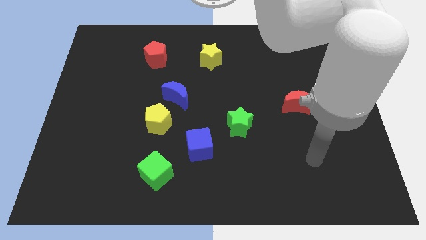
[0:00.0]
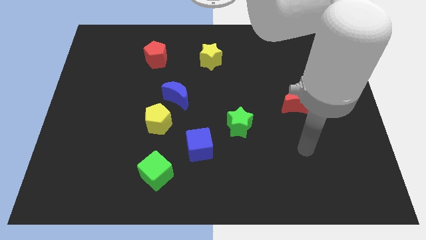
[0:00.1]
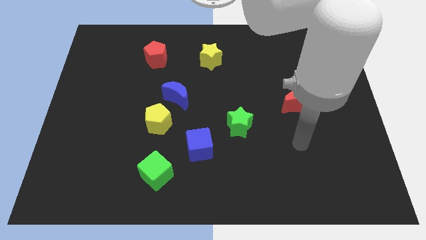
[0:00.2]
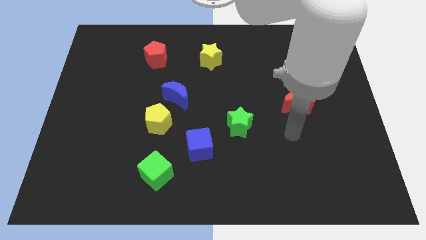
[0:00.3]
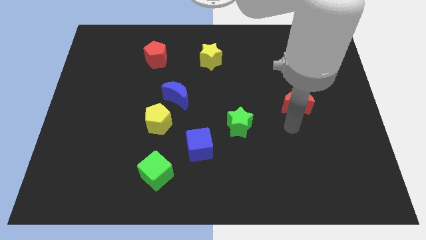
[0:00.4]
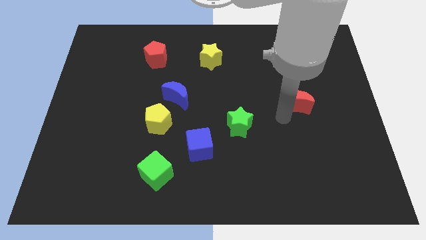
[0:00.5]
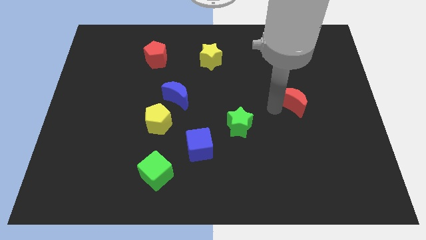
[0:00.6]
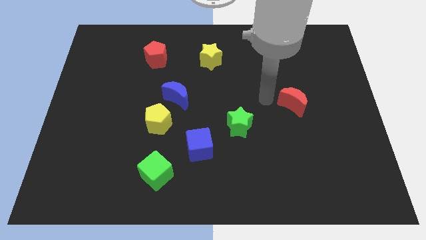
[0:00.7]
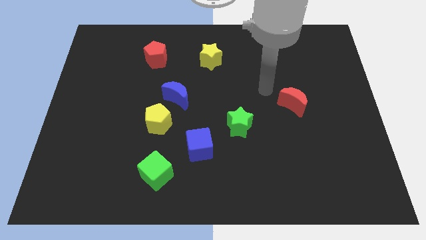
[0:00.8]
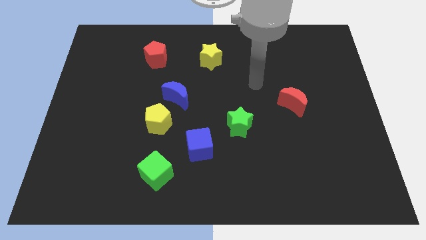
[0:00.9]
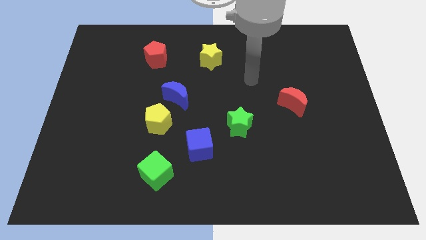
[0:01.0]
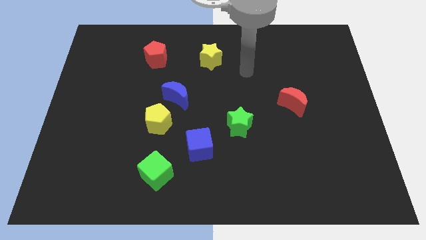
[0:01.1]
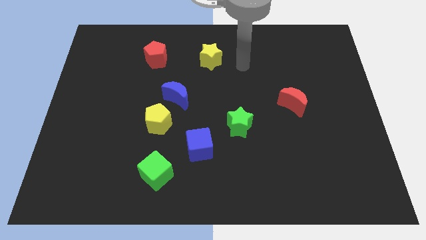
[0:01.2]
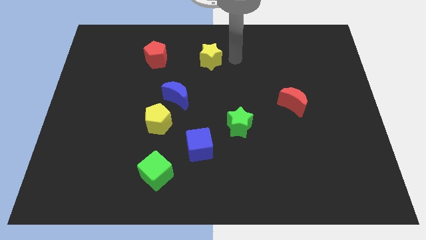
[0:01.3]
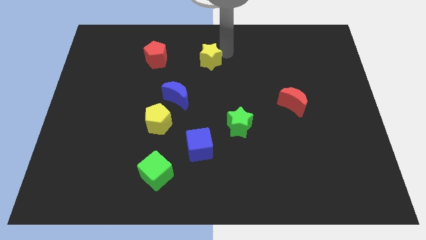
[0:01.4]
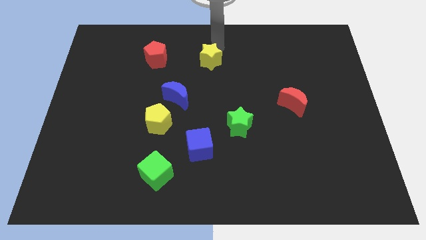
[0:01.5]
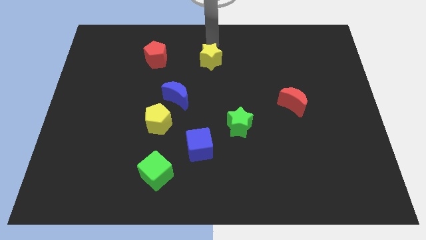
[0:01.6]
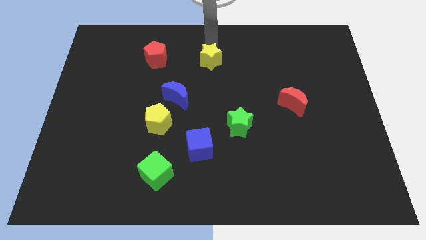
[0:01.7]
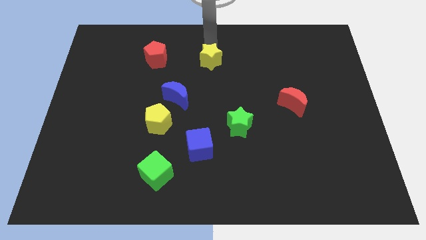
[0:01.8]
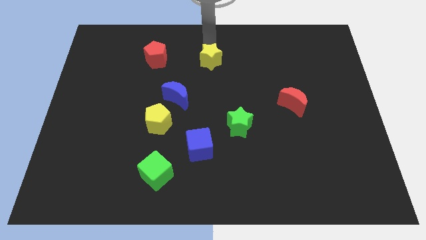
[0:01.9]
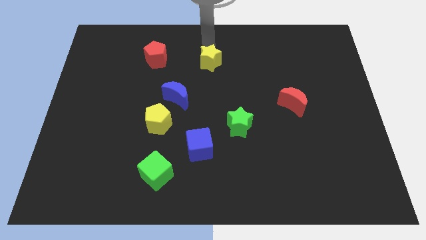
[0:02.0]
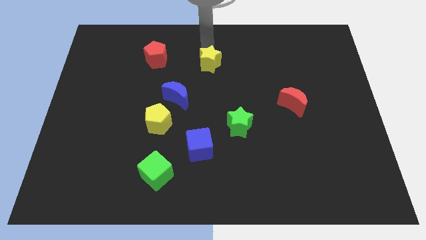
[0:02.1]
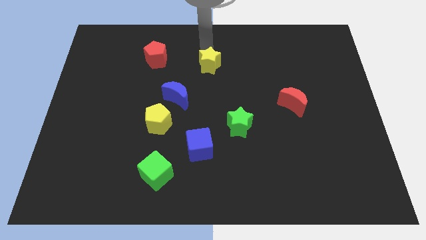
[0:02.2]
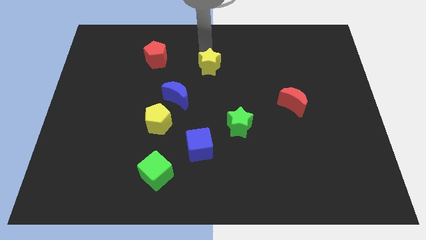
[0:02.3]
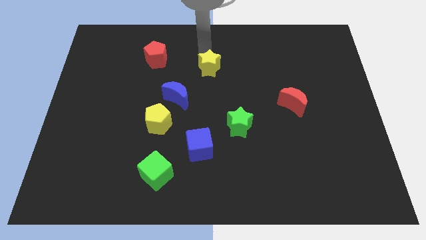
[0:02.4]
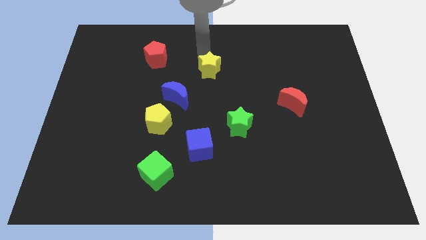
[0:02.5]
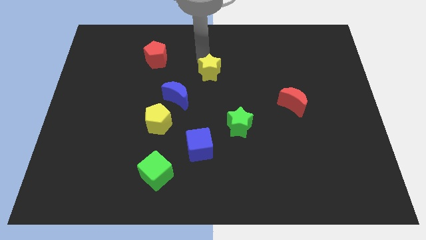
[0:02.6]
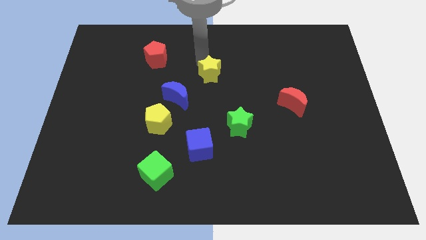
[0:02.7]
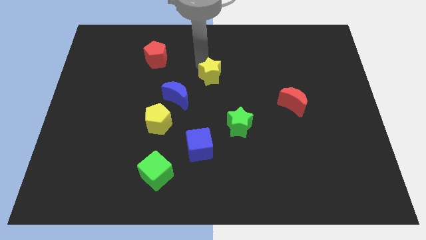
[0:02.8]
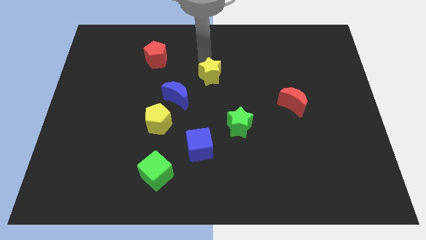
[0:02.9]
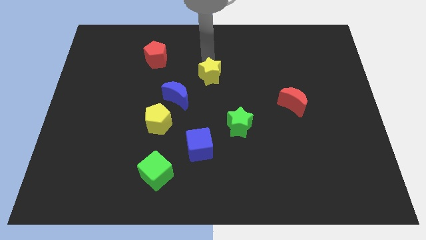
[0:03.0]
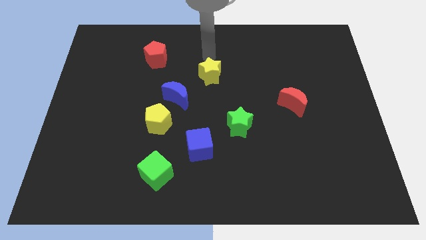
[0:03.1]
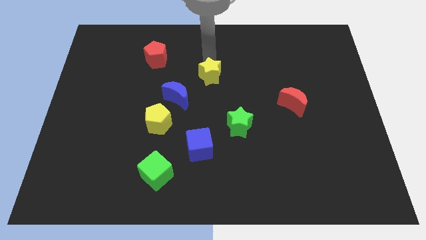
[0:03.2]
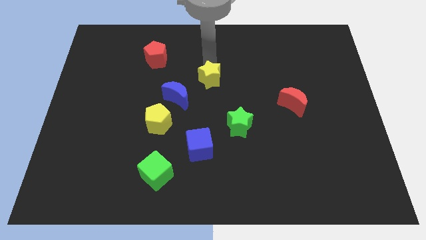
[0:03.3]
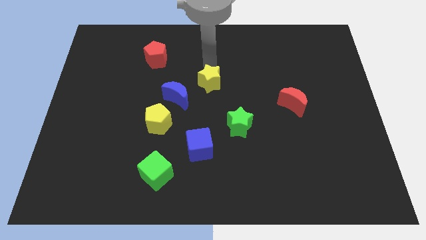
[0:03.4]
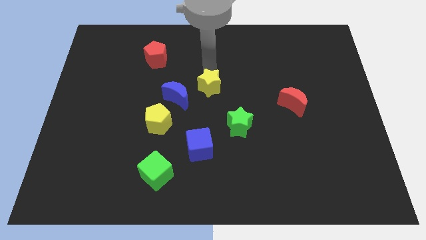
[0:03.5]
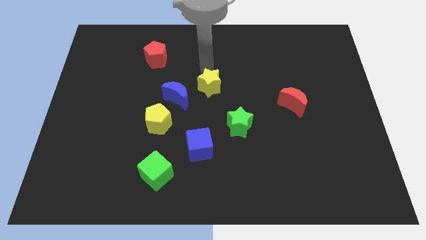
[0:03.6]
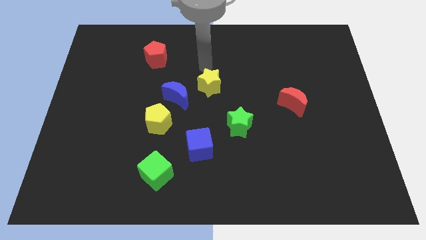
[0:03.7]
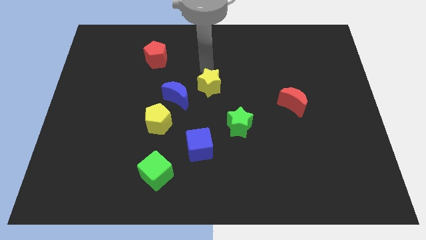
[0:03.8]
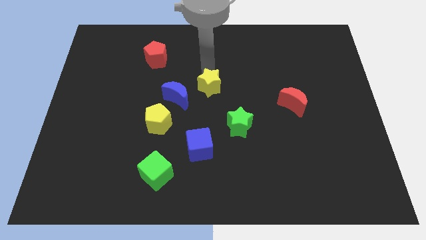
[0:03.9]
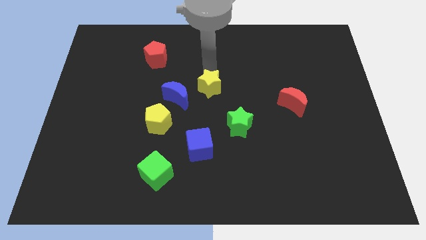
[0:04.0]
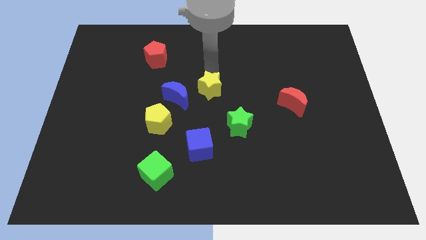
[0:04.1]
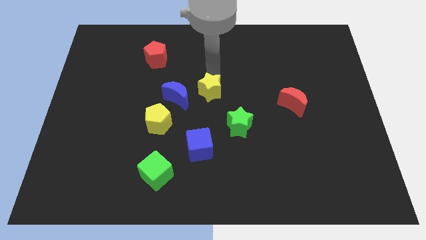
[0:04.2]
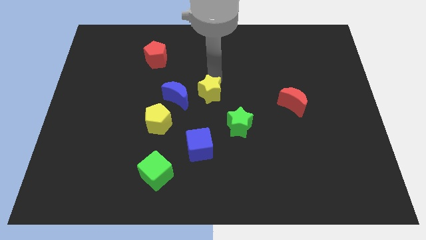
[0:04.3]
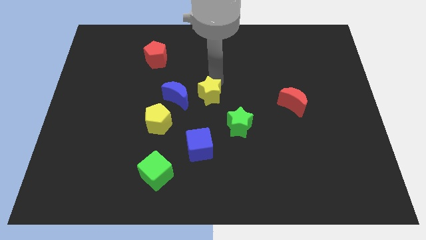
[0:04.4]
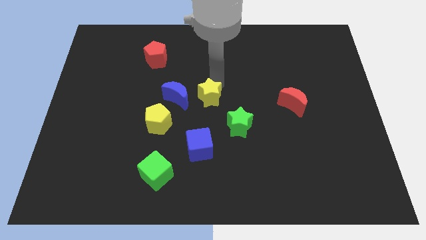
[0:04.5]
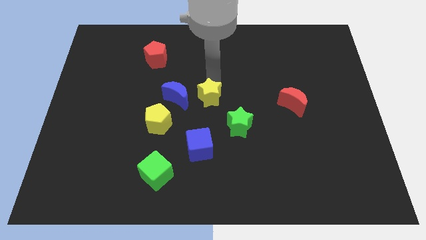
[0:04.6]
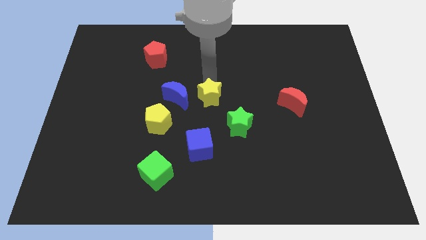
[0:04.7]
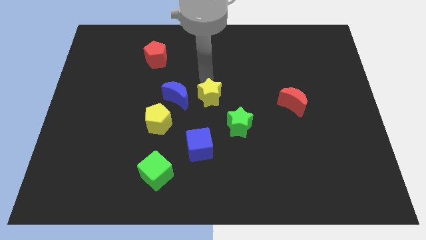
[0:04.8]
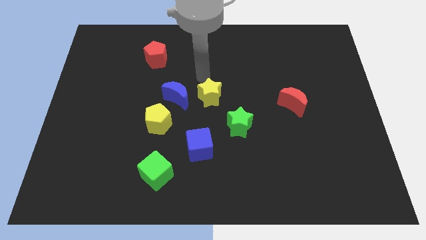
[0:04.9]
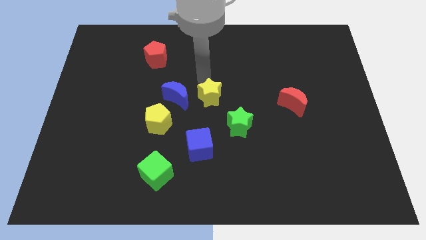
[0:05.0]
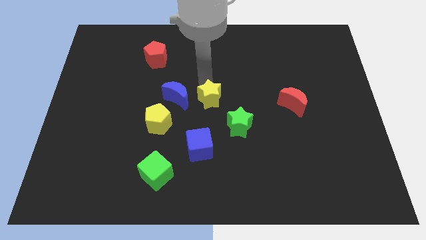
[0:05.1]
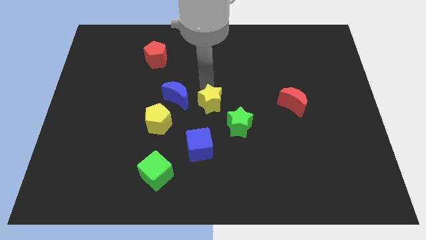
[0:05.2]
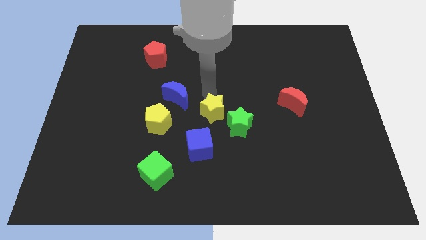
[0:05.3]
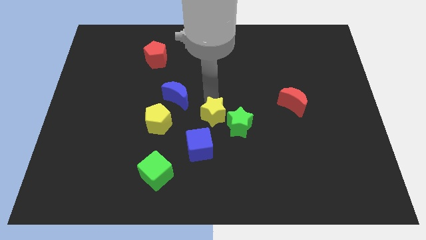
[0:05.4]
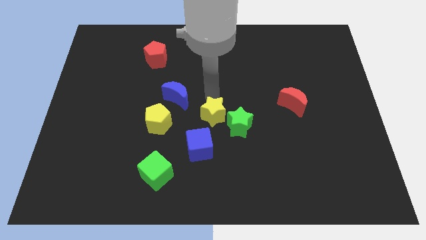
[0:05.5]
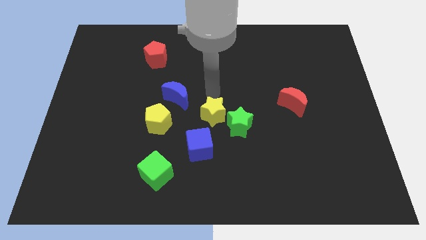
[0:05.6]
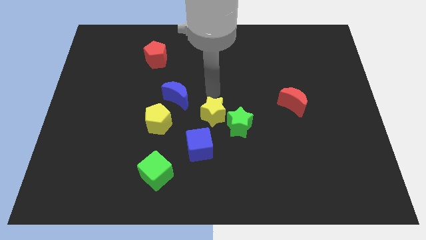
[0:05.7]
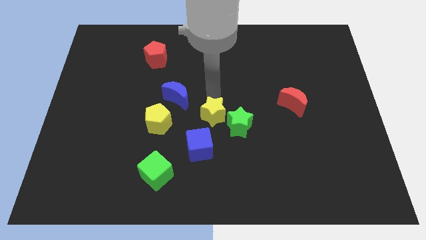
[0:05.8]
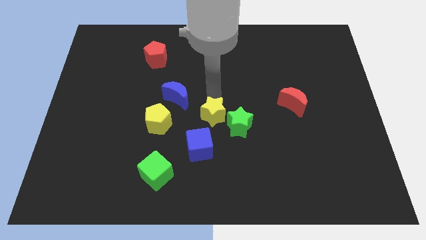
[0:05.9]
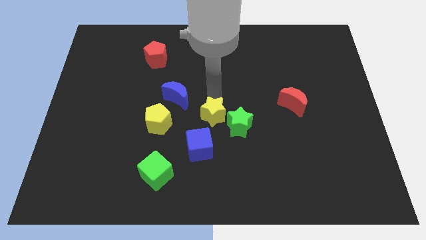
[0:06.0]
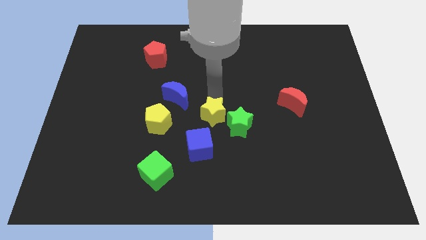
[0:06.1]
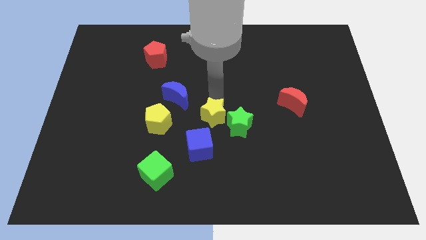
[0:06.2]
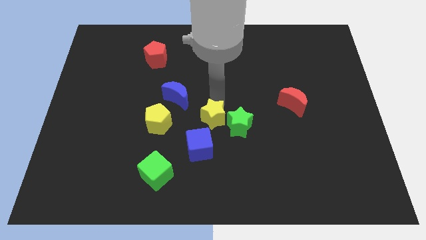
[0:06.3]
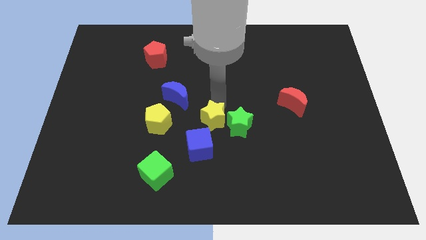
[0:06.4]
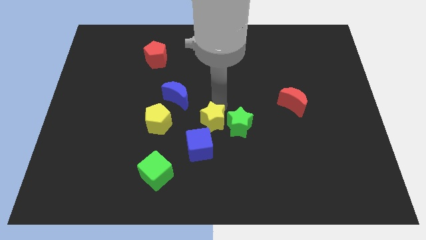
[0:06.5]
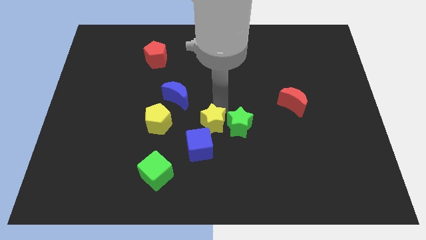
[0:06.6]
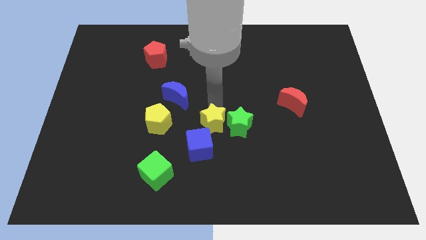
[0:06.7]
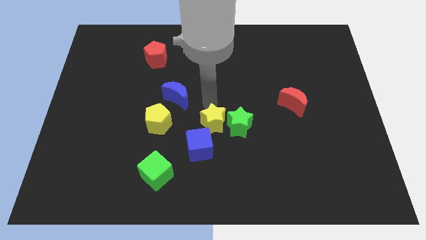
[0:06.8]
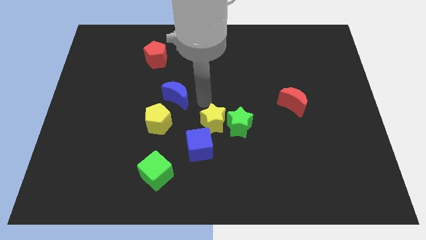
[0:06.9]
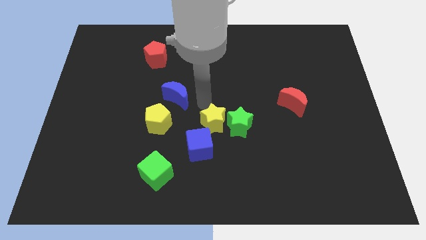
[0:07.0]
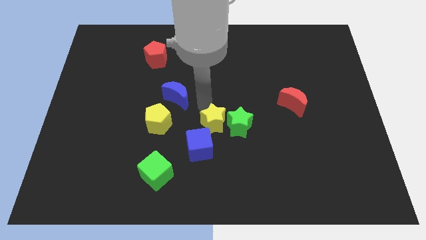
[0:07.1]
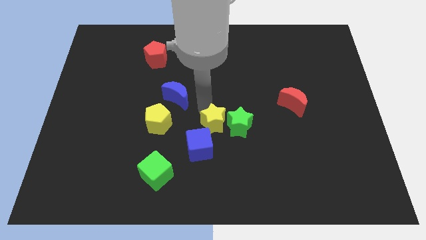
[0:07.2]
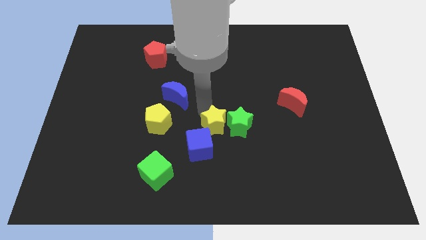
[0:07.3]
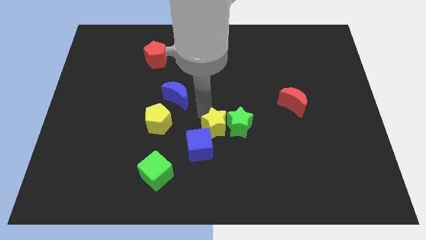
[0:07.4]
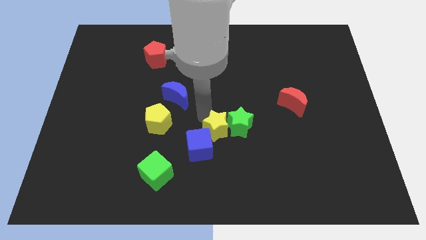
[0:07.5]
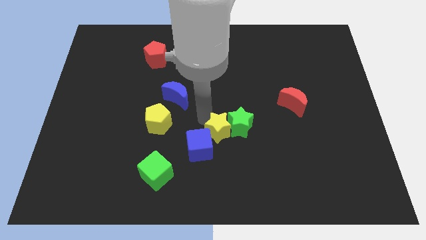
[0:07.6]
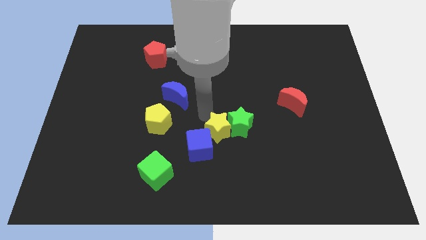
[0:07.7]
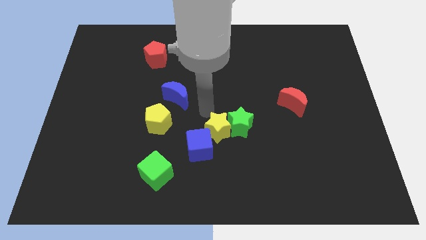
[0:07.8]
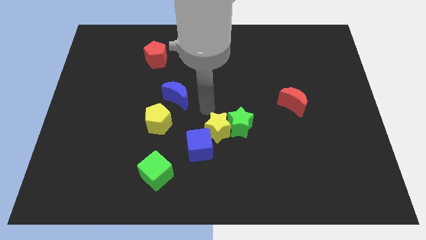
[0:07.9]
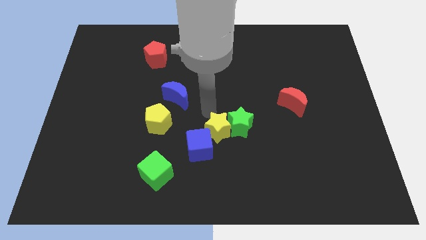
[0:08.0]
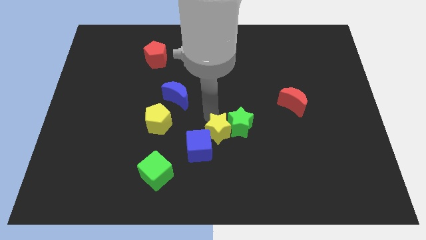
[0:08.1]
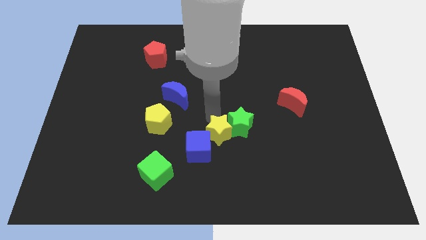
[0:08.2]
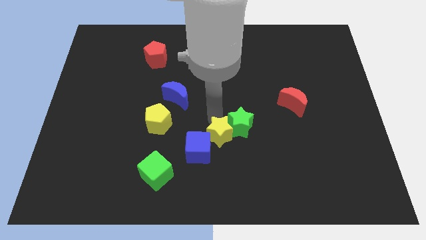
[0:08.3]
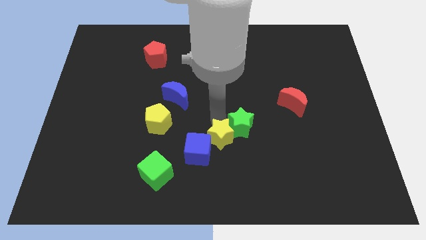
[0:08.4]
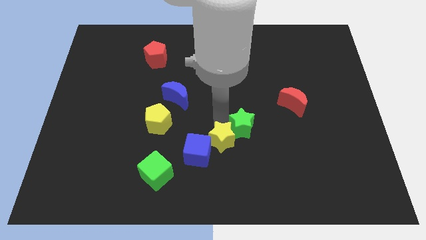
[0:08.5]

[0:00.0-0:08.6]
slide the yellow star to the bottom side of the green star
